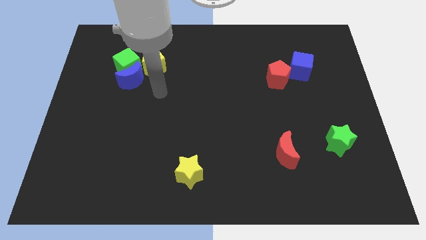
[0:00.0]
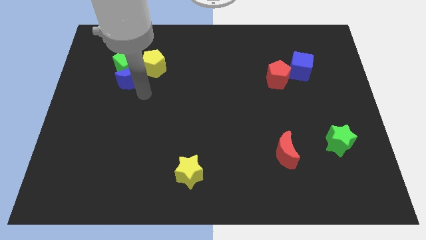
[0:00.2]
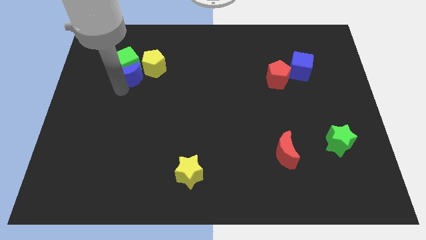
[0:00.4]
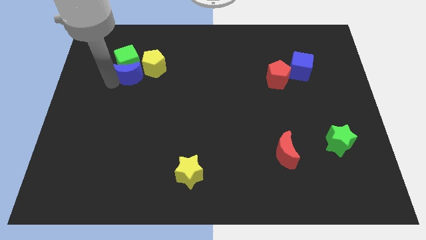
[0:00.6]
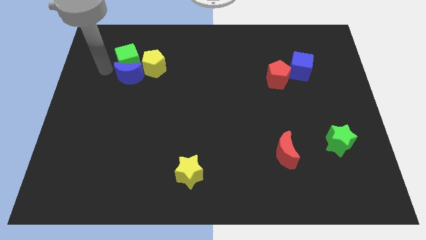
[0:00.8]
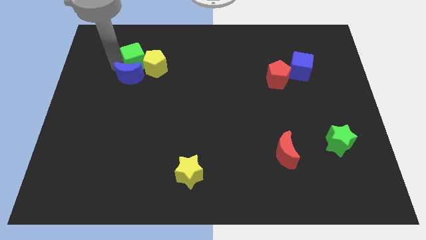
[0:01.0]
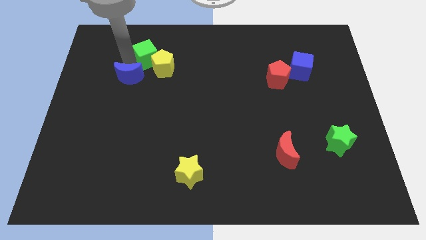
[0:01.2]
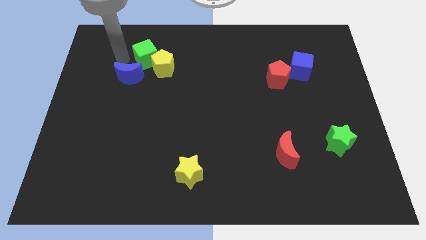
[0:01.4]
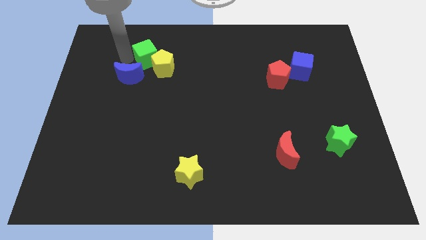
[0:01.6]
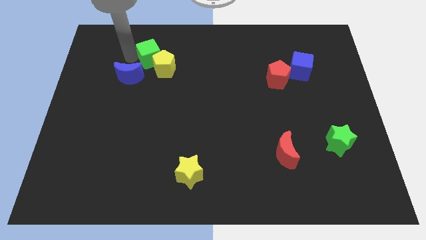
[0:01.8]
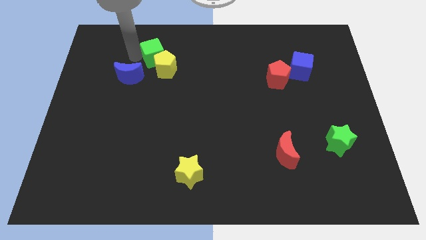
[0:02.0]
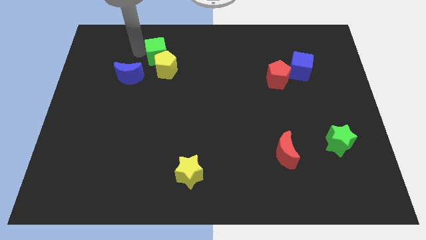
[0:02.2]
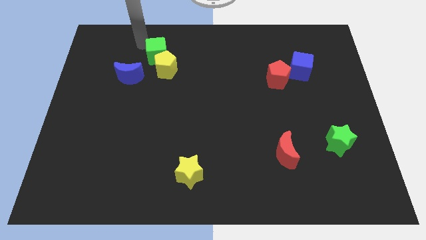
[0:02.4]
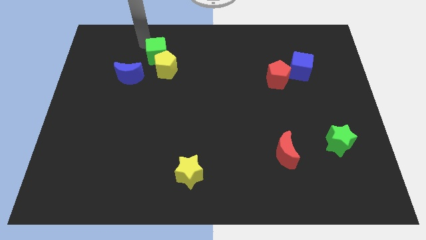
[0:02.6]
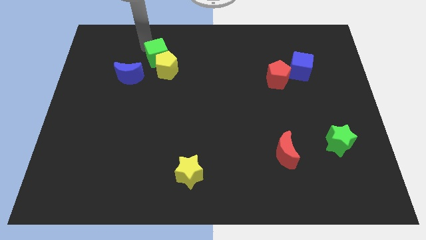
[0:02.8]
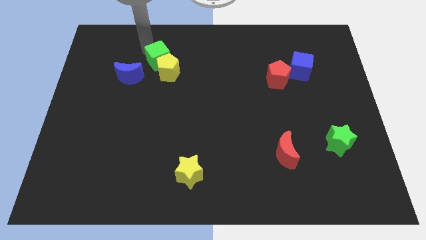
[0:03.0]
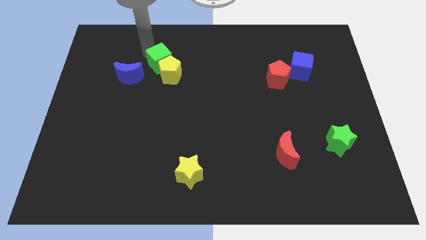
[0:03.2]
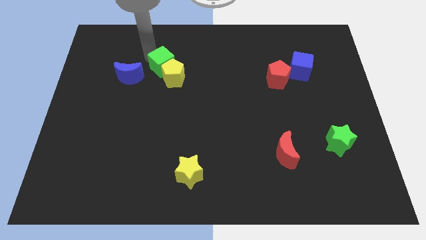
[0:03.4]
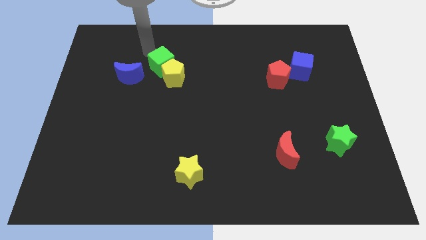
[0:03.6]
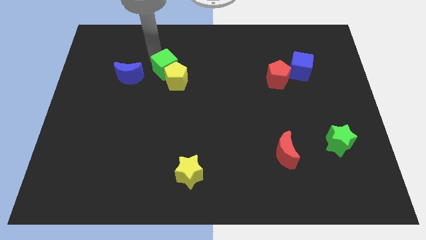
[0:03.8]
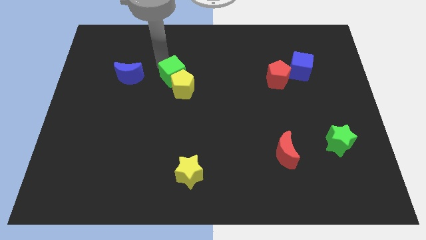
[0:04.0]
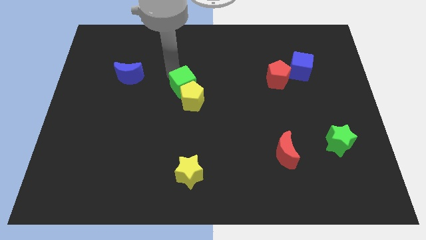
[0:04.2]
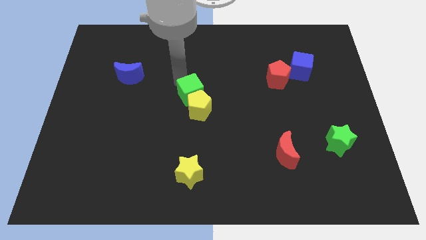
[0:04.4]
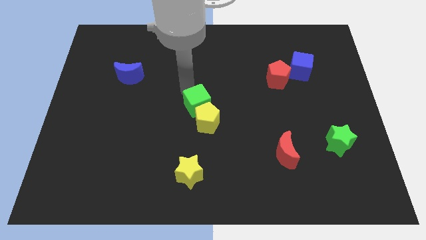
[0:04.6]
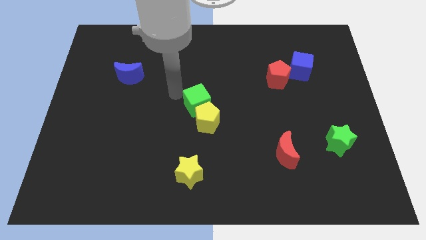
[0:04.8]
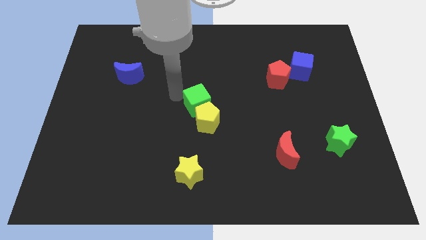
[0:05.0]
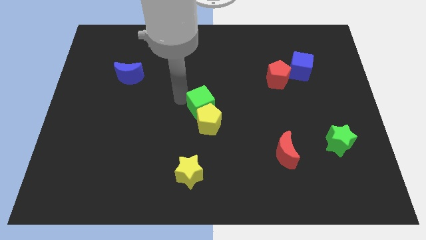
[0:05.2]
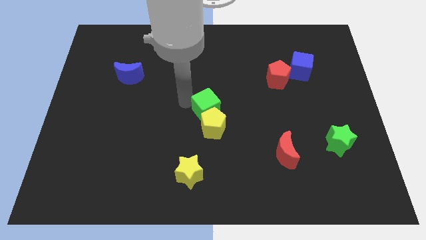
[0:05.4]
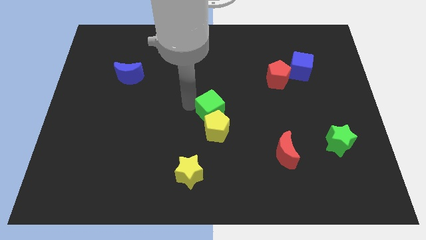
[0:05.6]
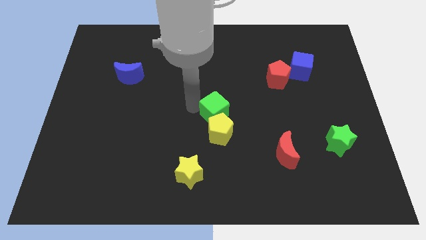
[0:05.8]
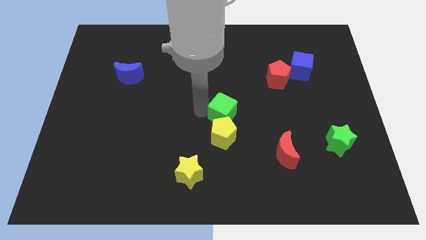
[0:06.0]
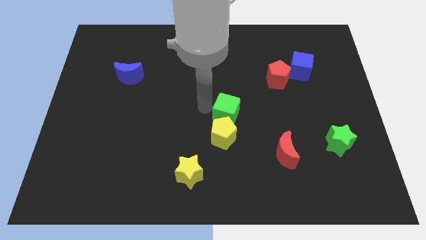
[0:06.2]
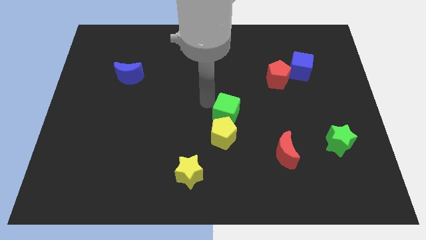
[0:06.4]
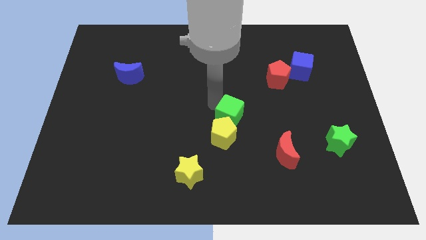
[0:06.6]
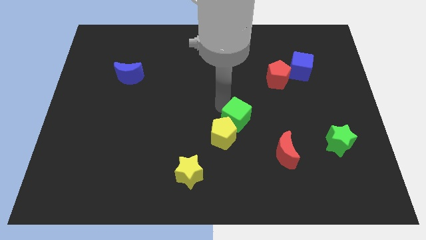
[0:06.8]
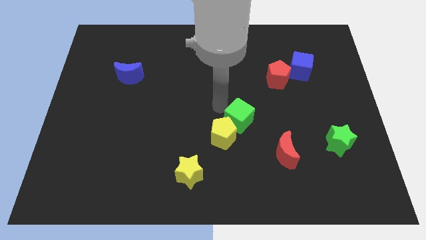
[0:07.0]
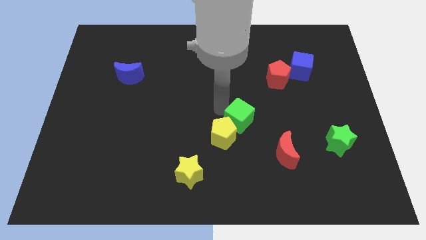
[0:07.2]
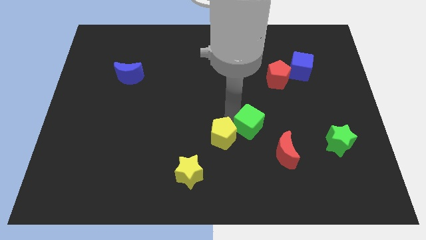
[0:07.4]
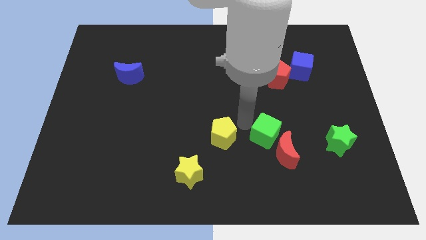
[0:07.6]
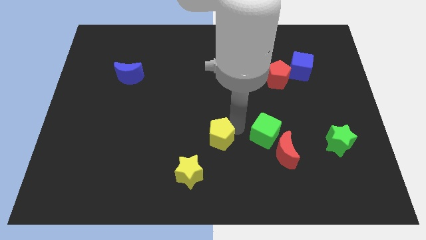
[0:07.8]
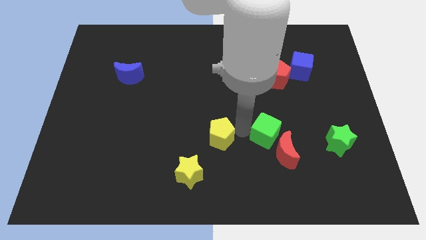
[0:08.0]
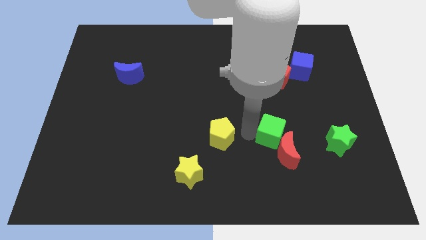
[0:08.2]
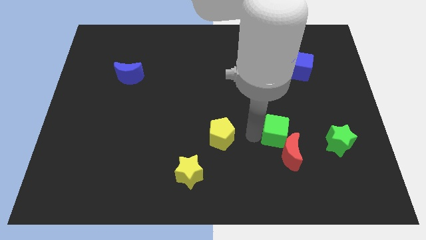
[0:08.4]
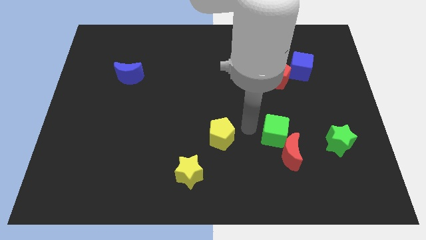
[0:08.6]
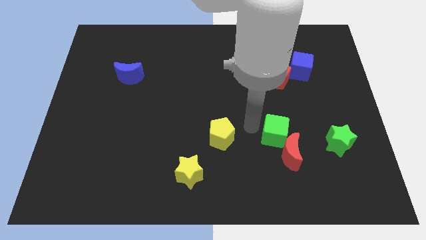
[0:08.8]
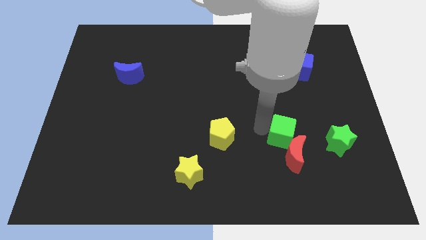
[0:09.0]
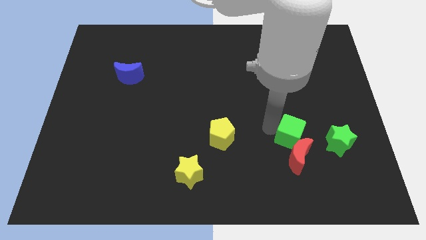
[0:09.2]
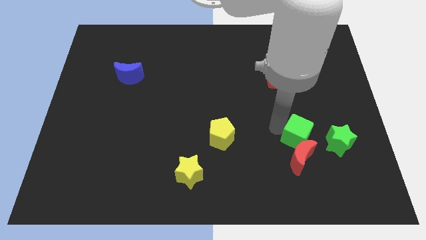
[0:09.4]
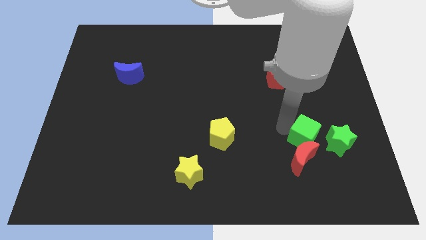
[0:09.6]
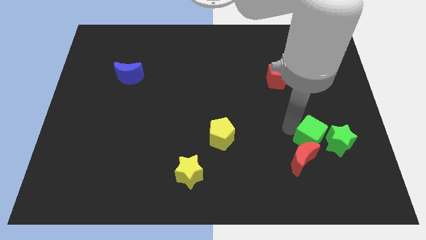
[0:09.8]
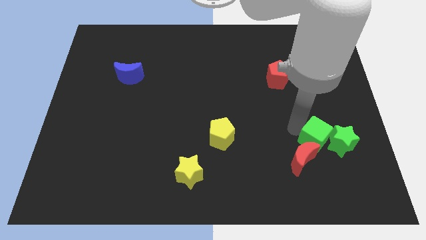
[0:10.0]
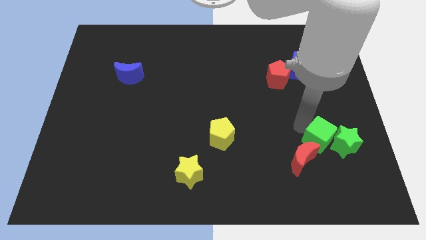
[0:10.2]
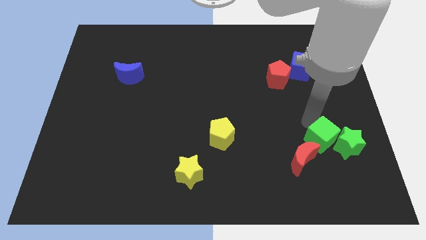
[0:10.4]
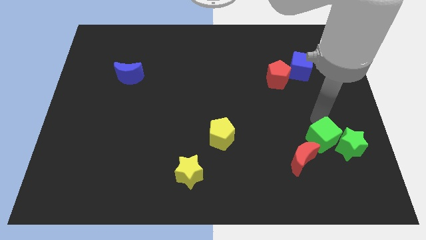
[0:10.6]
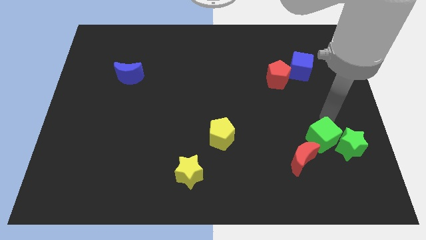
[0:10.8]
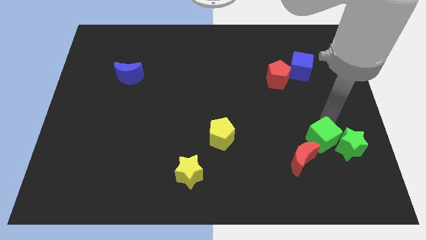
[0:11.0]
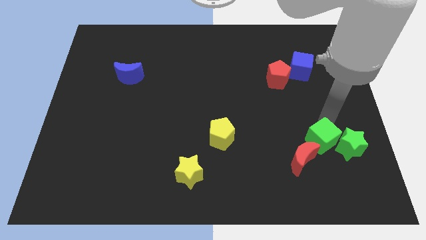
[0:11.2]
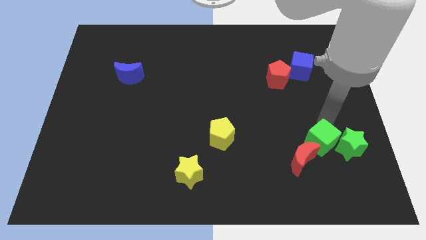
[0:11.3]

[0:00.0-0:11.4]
slide the green cube to the right of the red moon

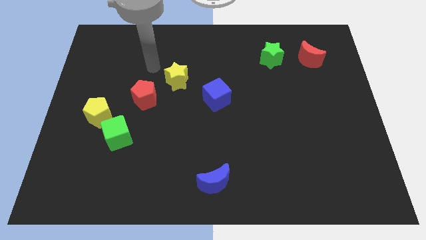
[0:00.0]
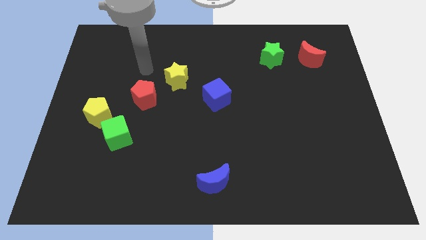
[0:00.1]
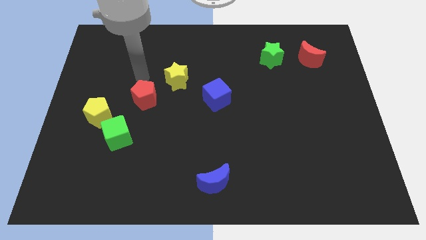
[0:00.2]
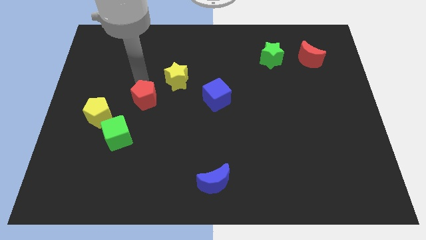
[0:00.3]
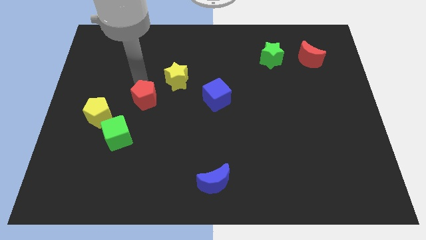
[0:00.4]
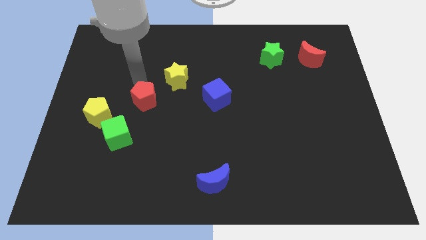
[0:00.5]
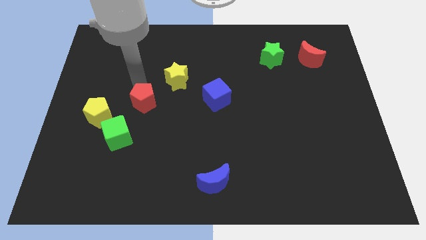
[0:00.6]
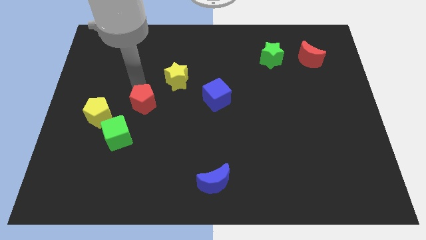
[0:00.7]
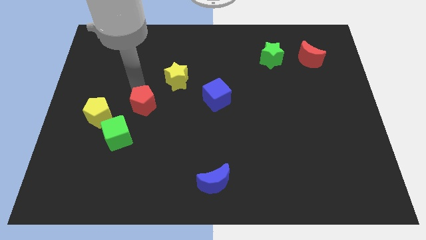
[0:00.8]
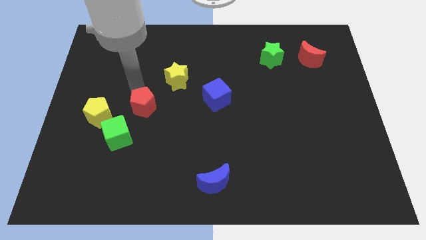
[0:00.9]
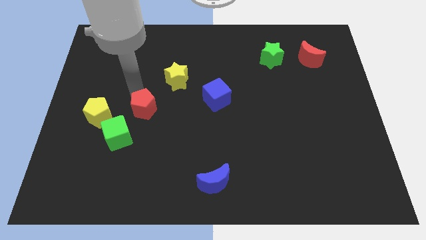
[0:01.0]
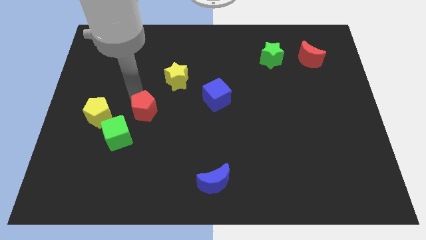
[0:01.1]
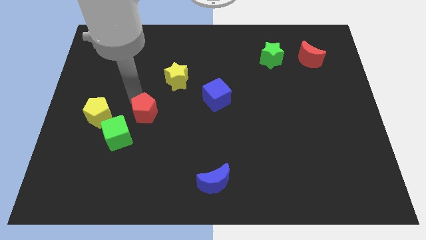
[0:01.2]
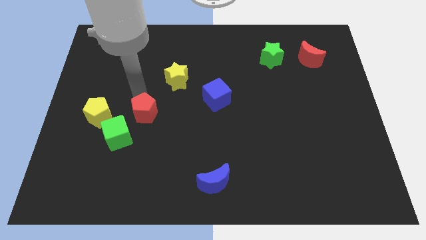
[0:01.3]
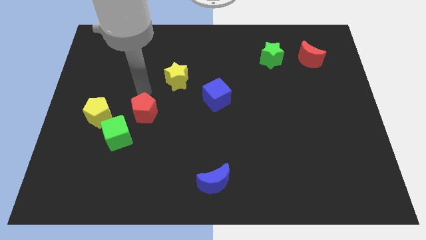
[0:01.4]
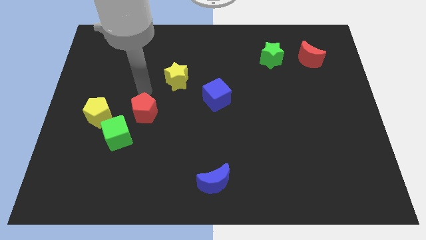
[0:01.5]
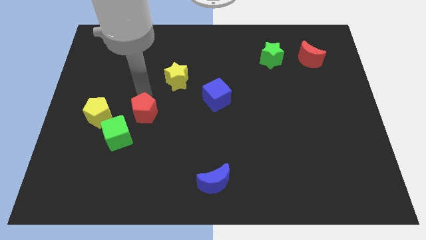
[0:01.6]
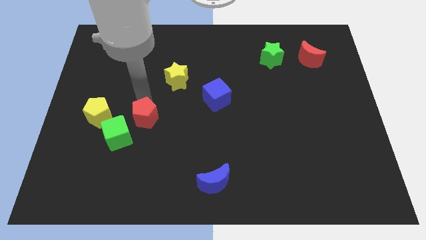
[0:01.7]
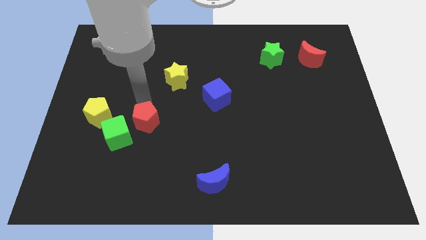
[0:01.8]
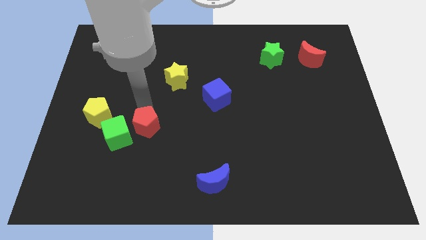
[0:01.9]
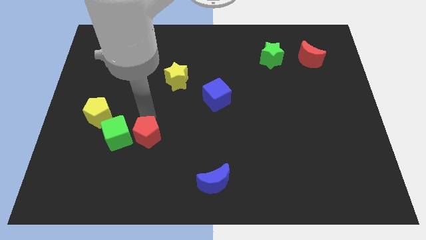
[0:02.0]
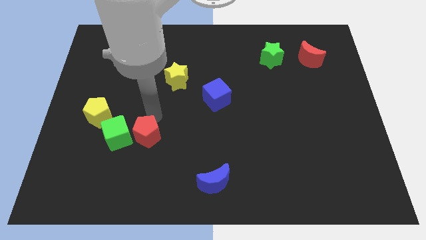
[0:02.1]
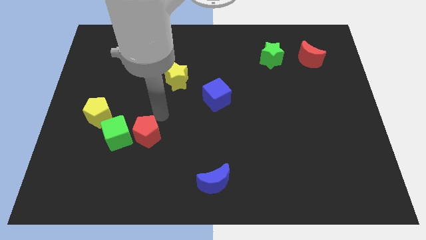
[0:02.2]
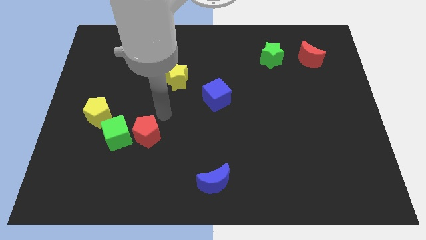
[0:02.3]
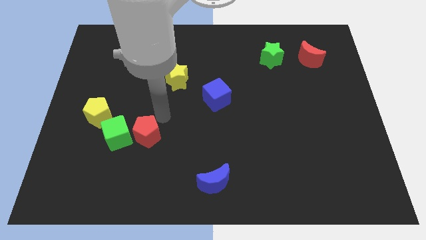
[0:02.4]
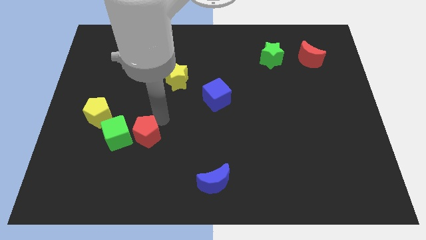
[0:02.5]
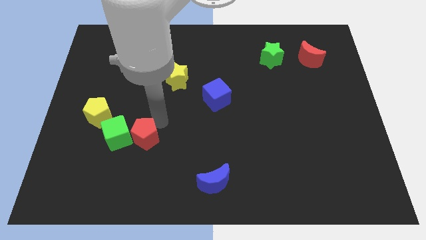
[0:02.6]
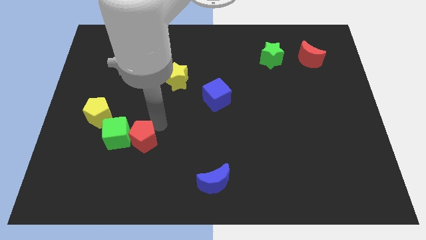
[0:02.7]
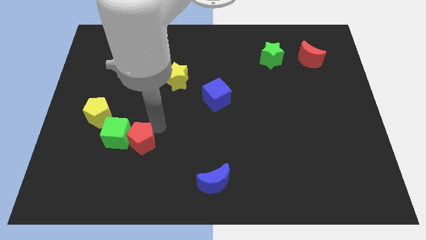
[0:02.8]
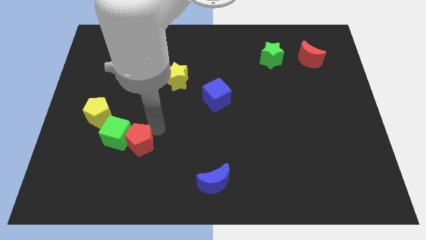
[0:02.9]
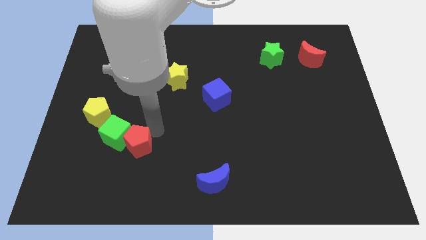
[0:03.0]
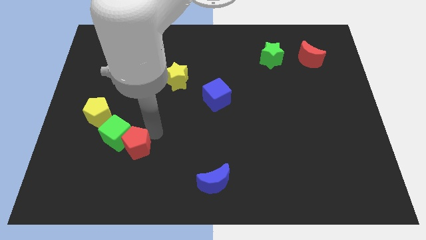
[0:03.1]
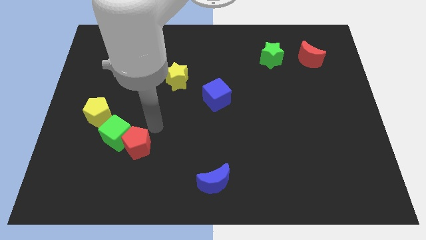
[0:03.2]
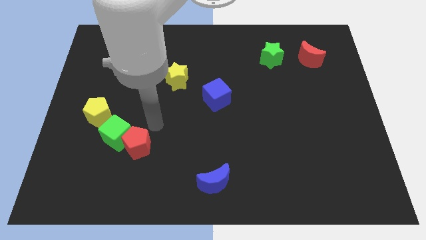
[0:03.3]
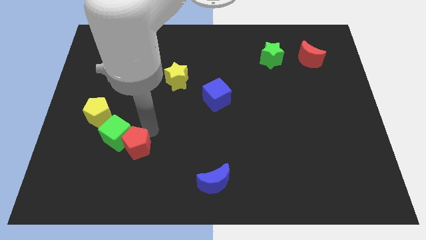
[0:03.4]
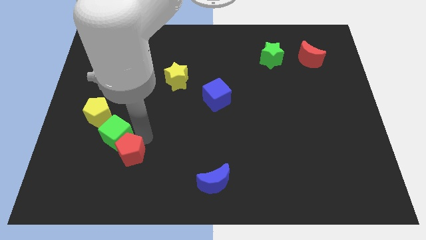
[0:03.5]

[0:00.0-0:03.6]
move the red pentagon to the bottom side of the green cube
